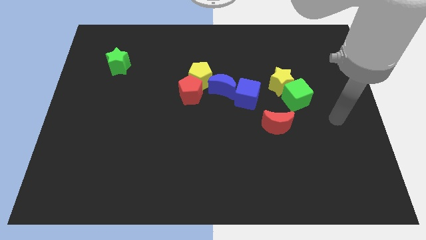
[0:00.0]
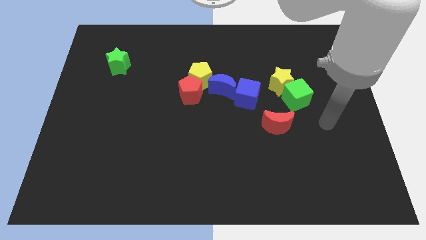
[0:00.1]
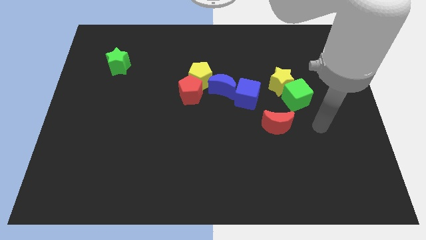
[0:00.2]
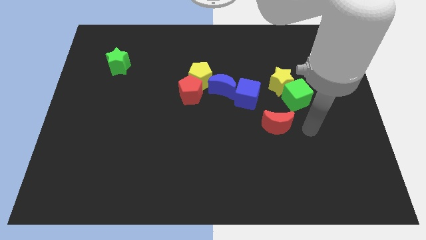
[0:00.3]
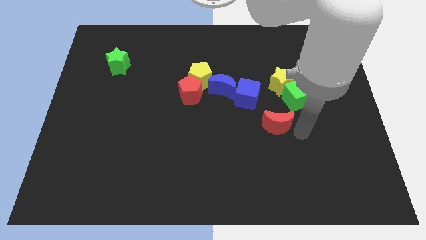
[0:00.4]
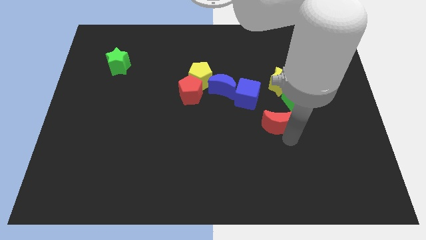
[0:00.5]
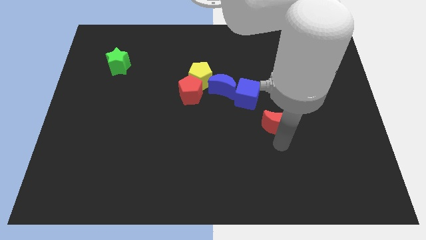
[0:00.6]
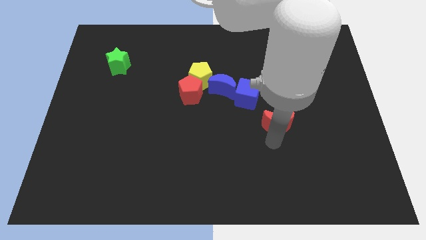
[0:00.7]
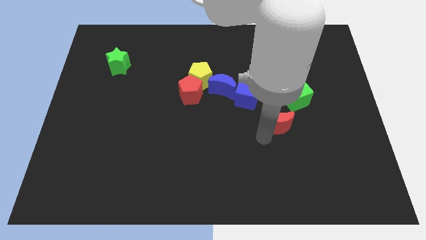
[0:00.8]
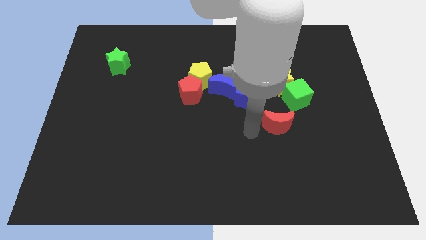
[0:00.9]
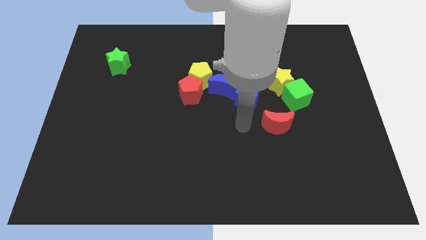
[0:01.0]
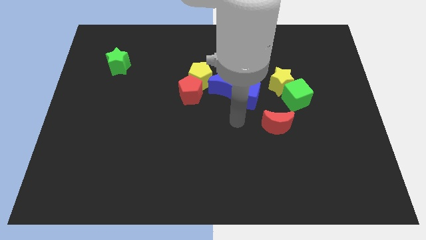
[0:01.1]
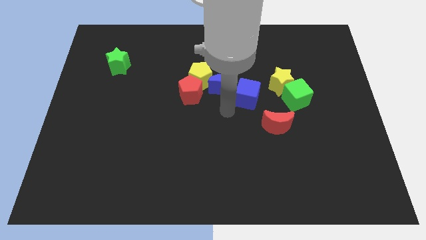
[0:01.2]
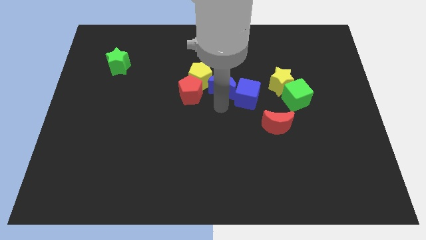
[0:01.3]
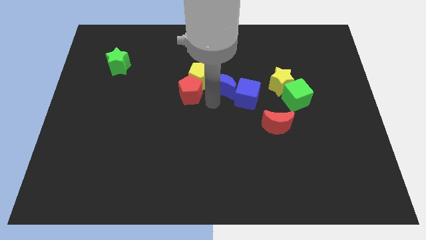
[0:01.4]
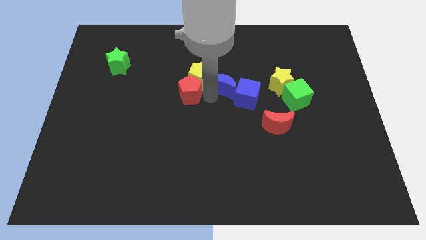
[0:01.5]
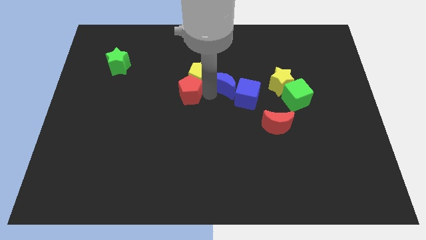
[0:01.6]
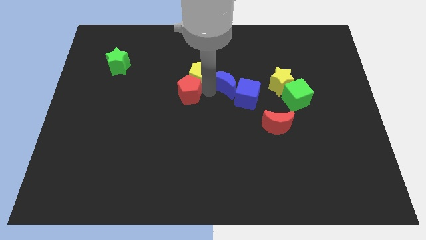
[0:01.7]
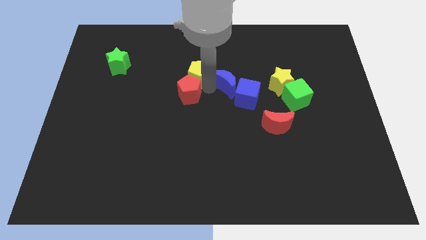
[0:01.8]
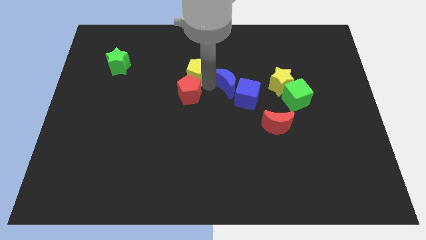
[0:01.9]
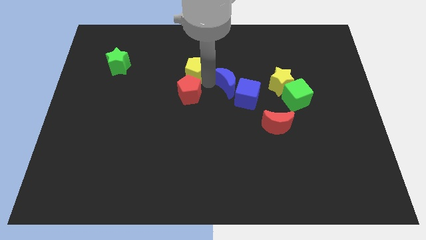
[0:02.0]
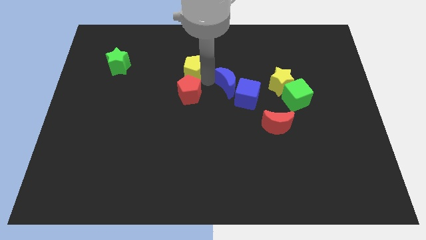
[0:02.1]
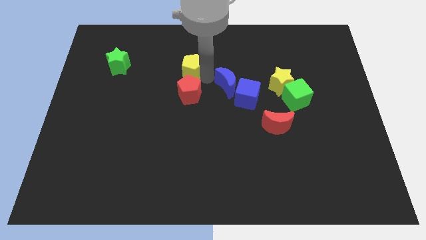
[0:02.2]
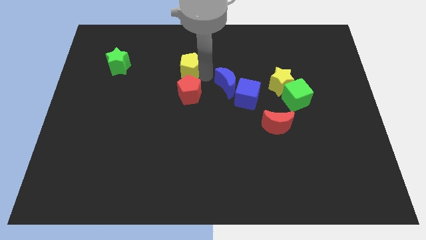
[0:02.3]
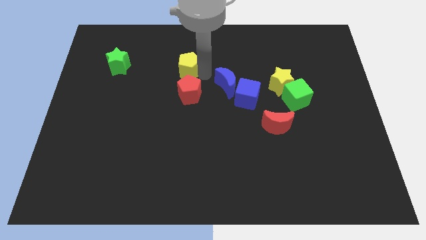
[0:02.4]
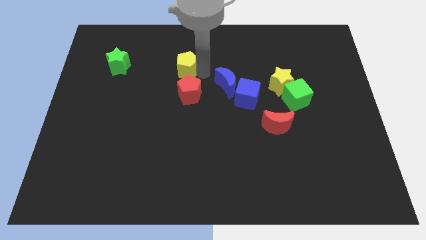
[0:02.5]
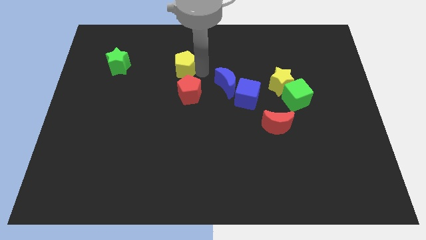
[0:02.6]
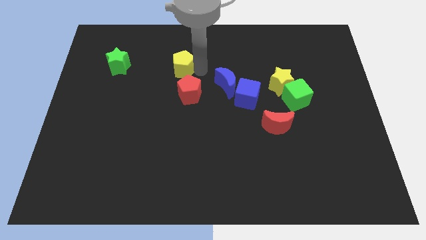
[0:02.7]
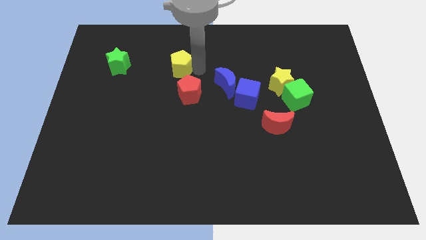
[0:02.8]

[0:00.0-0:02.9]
pull the yellow pentagon apart from the red pentagon and blue moon

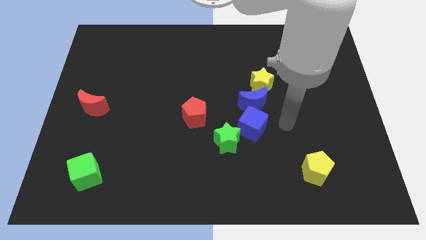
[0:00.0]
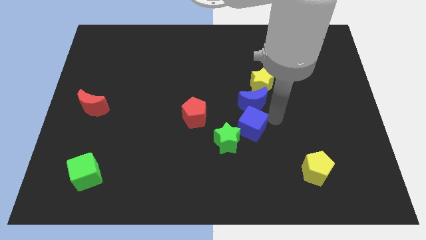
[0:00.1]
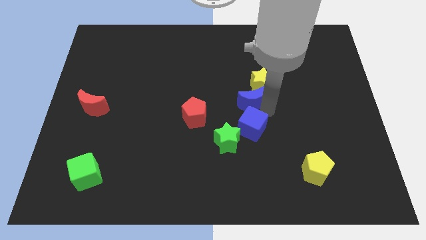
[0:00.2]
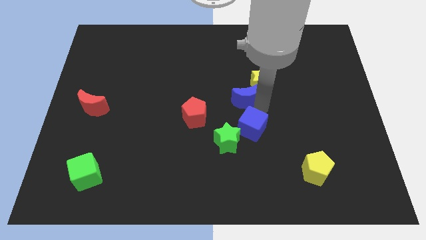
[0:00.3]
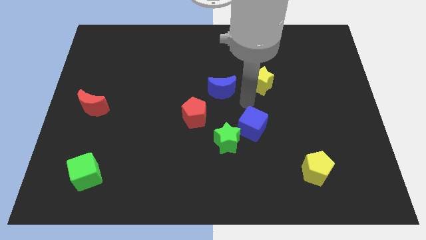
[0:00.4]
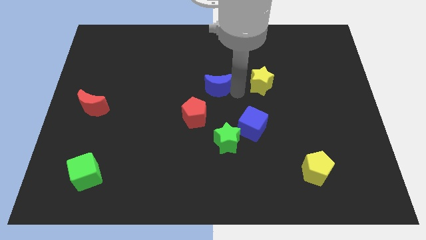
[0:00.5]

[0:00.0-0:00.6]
separate the yellow star from the blue moon

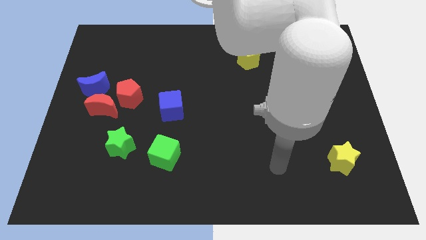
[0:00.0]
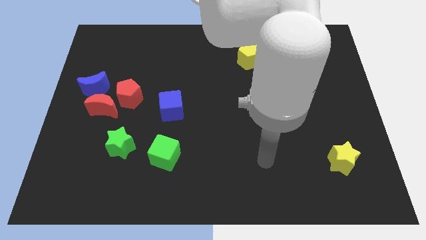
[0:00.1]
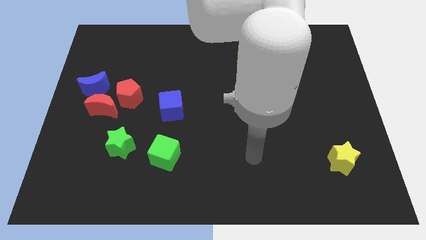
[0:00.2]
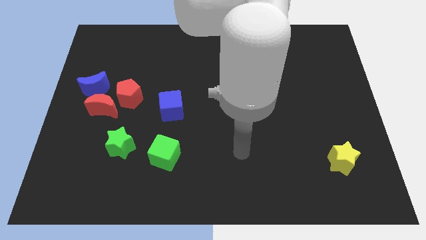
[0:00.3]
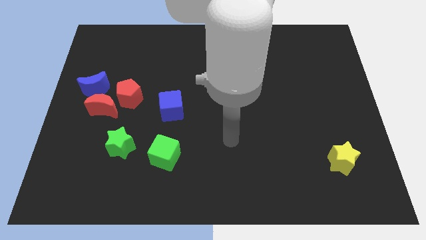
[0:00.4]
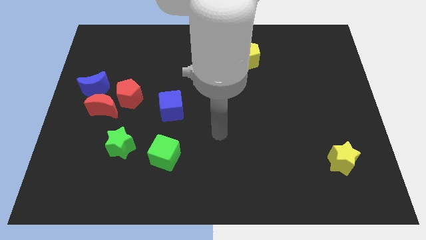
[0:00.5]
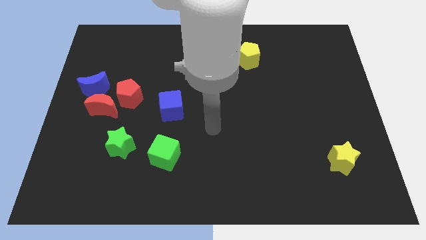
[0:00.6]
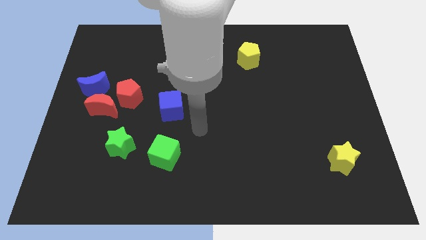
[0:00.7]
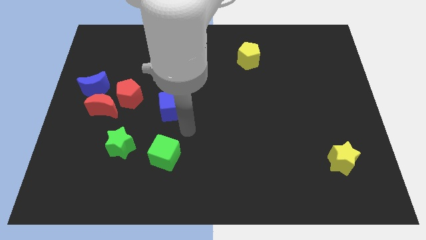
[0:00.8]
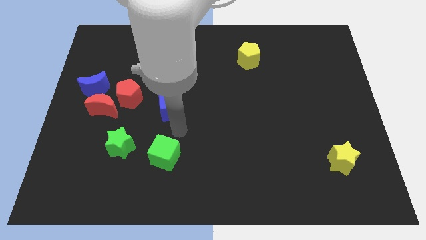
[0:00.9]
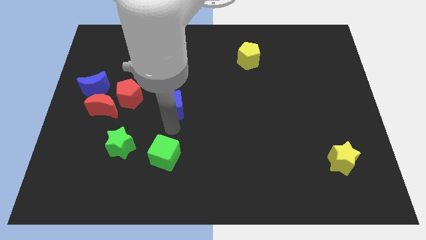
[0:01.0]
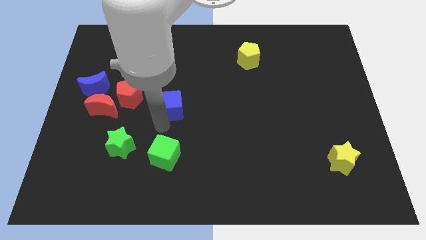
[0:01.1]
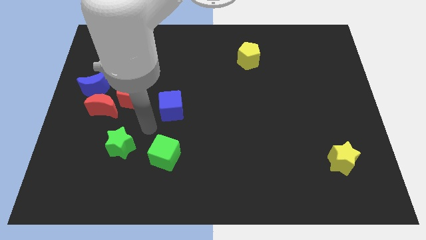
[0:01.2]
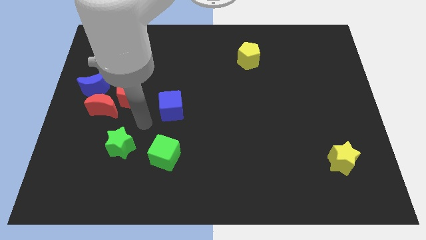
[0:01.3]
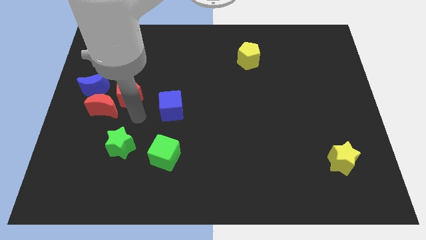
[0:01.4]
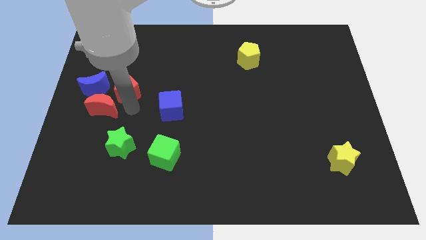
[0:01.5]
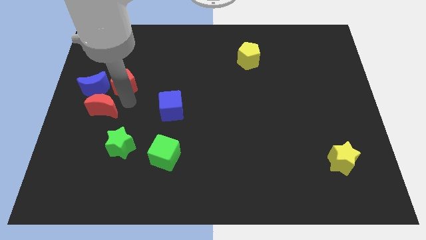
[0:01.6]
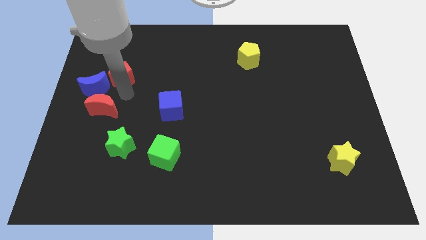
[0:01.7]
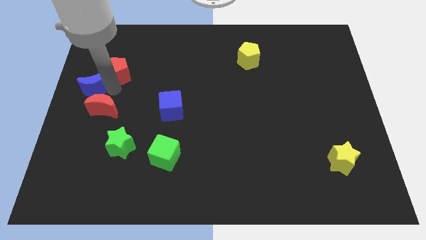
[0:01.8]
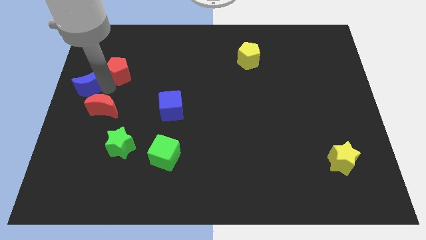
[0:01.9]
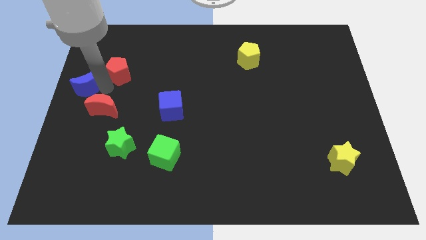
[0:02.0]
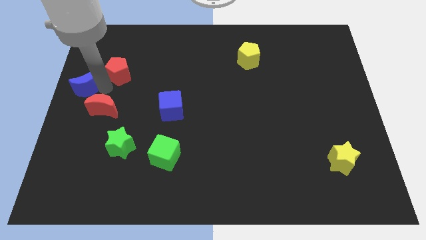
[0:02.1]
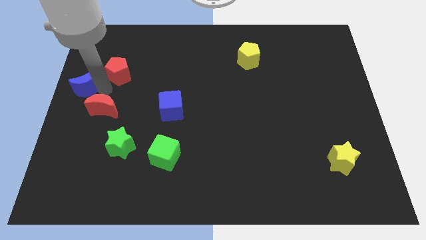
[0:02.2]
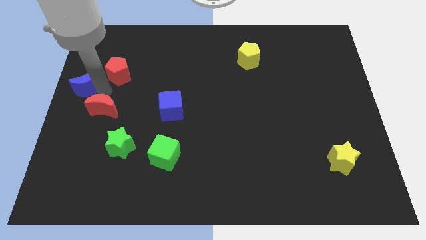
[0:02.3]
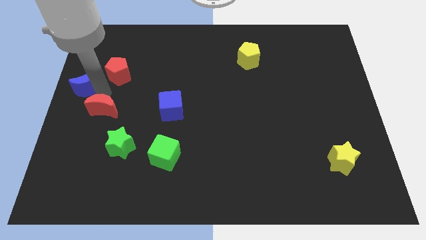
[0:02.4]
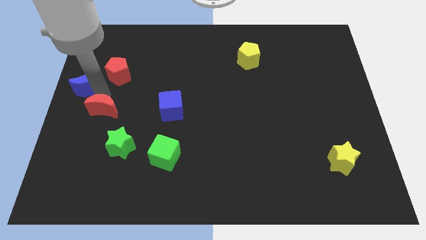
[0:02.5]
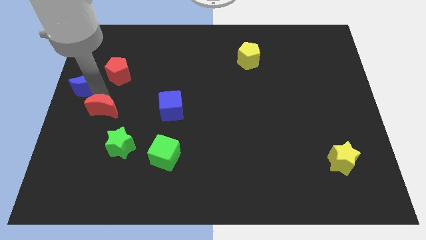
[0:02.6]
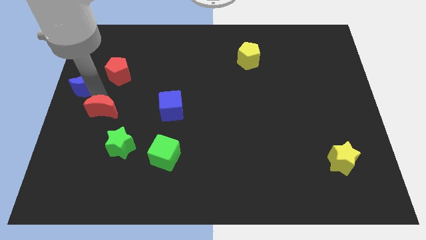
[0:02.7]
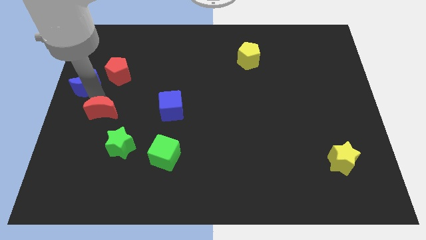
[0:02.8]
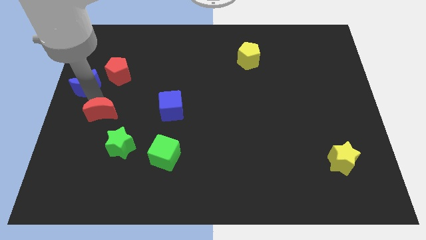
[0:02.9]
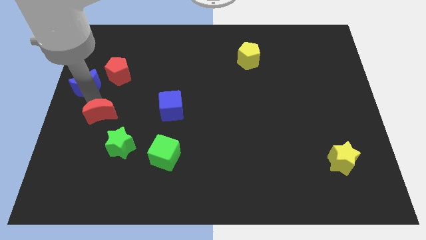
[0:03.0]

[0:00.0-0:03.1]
separate the red moon from the red pentagon and blue moon

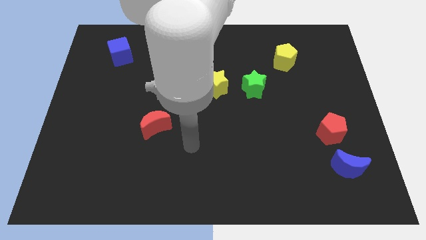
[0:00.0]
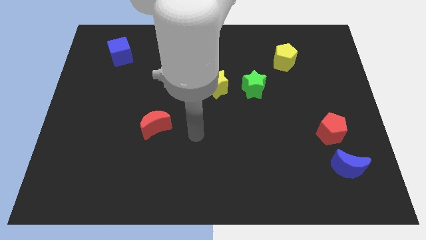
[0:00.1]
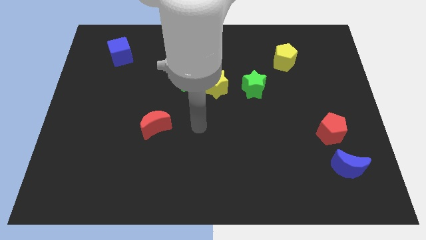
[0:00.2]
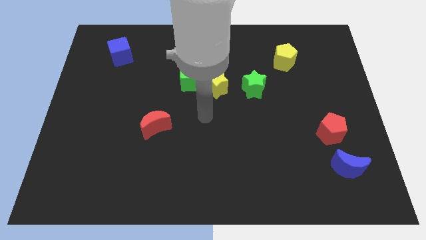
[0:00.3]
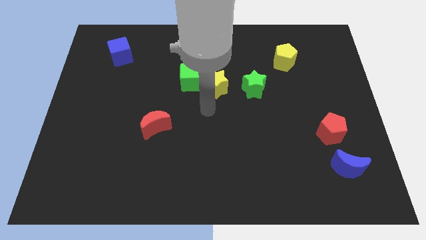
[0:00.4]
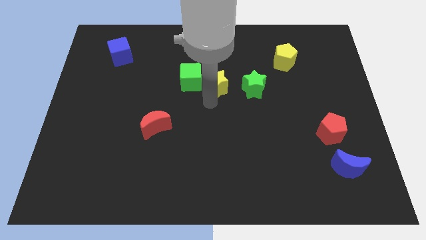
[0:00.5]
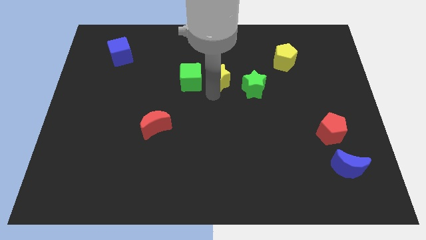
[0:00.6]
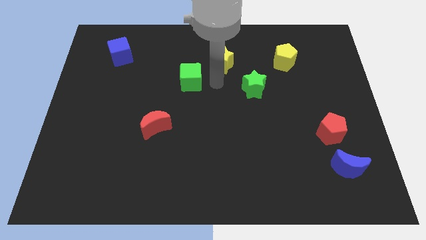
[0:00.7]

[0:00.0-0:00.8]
separate the green cube from the yellow star

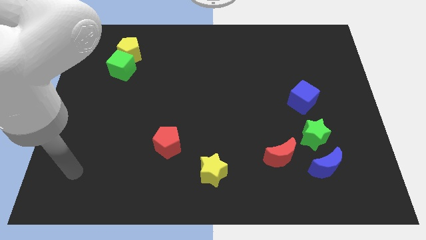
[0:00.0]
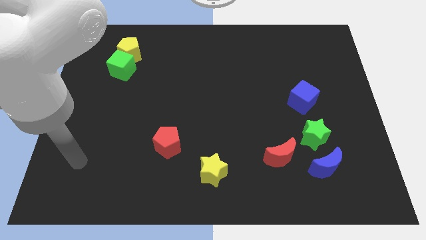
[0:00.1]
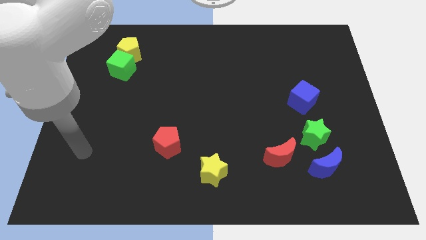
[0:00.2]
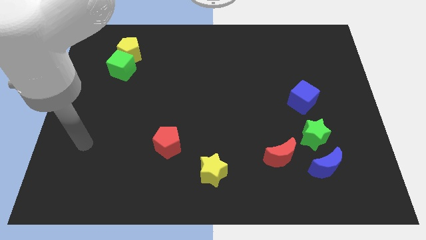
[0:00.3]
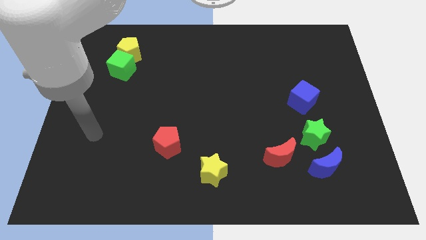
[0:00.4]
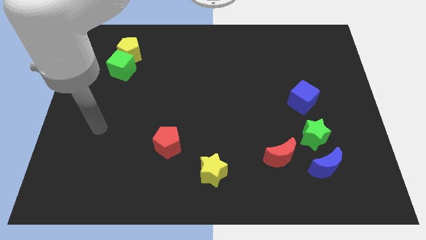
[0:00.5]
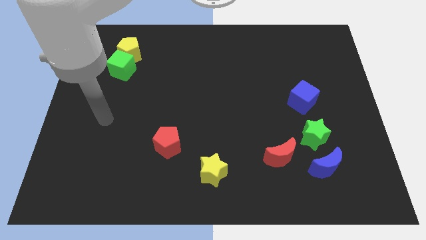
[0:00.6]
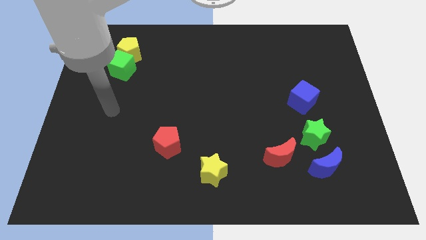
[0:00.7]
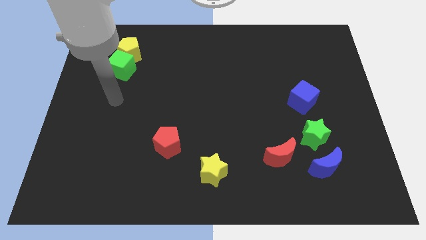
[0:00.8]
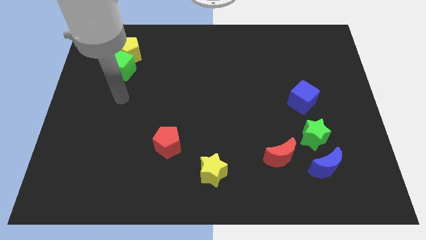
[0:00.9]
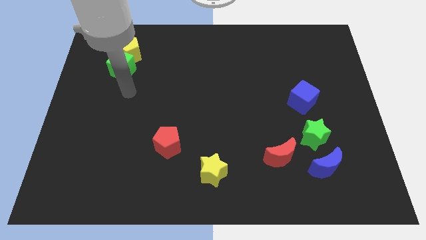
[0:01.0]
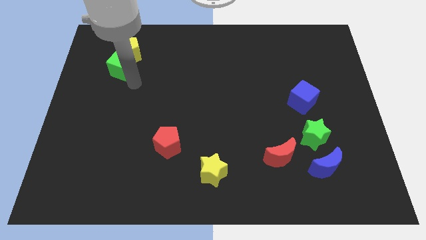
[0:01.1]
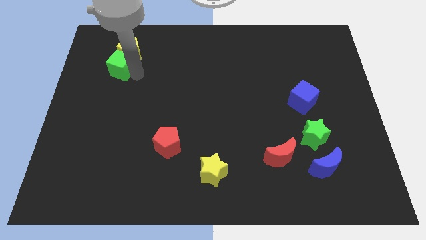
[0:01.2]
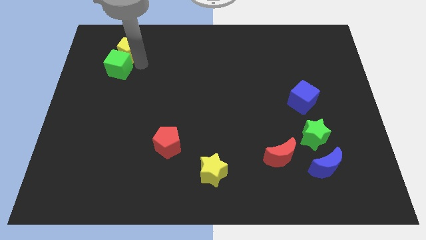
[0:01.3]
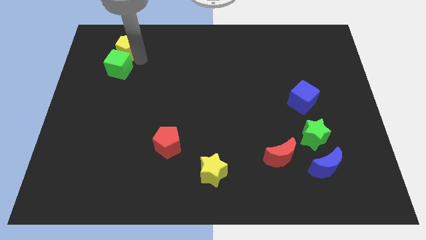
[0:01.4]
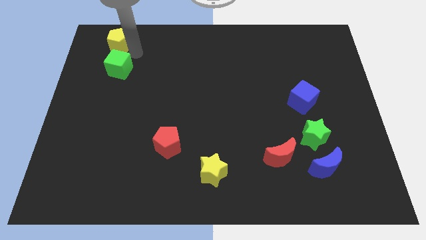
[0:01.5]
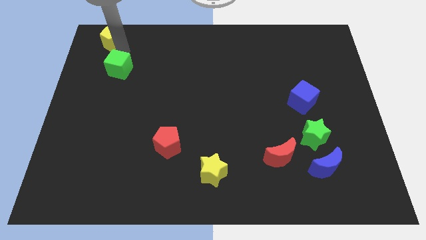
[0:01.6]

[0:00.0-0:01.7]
separate the green cube from the yellow pentagon
